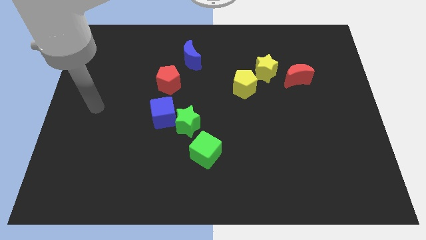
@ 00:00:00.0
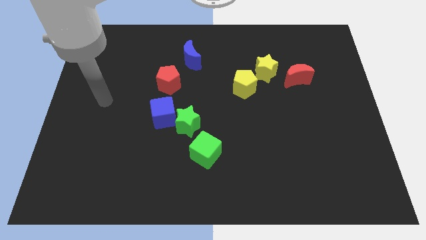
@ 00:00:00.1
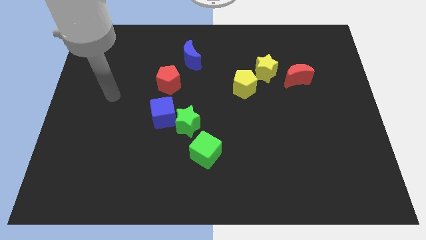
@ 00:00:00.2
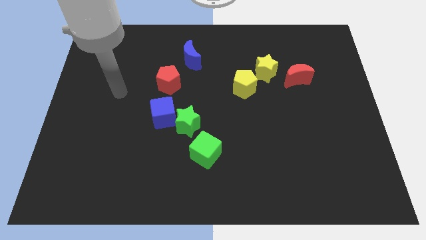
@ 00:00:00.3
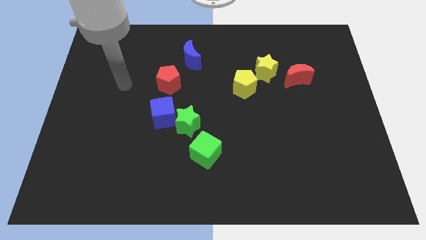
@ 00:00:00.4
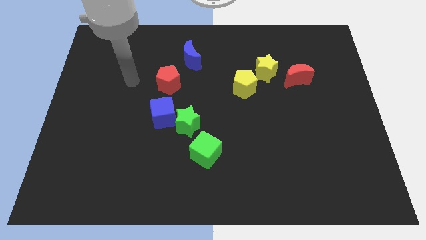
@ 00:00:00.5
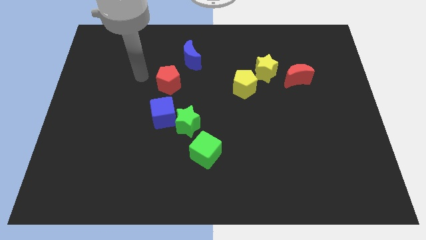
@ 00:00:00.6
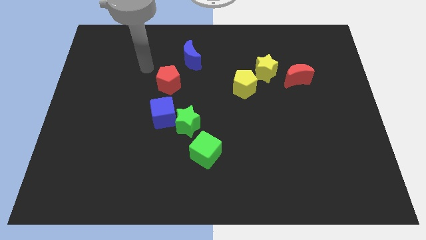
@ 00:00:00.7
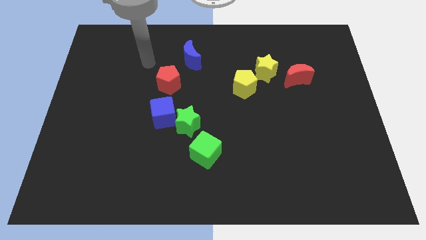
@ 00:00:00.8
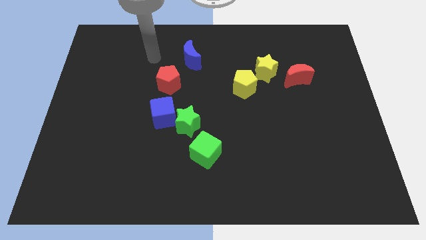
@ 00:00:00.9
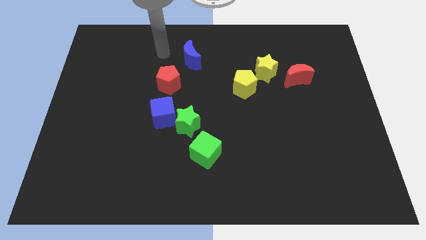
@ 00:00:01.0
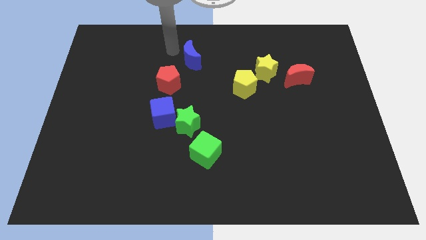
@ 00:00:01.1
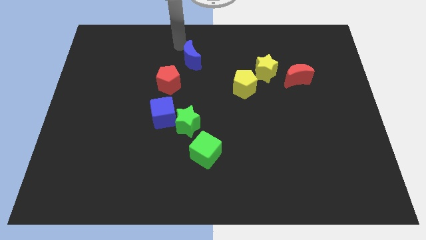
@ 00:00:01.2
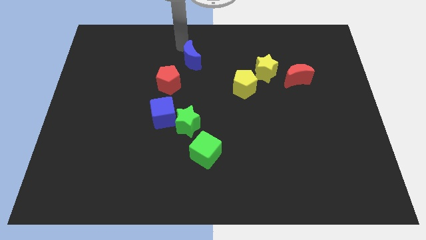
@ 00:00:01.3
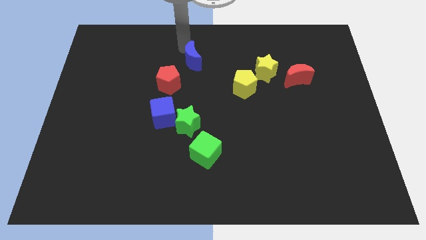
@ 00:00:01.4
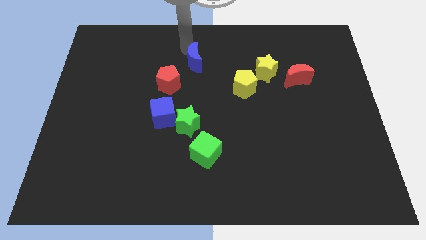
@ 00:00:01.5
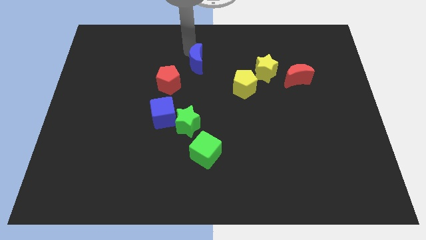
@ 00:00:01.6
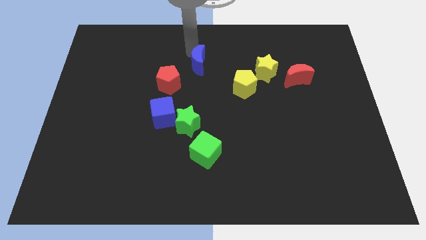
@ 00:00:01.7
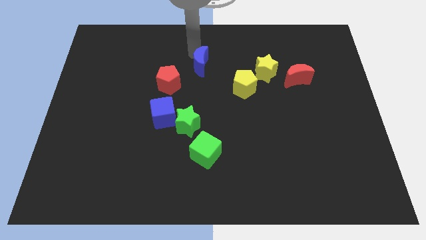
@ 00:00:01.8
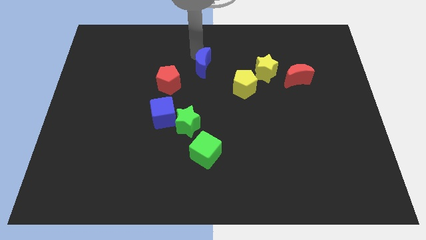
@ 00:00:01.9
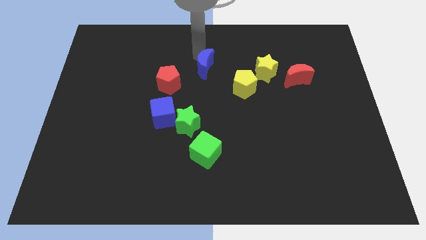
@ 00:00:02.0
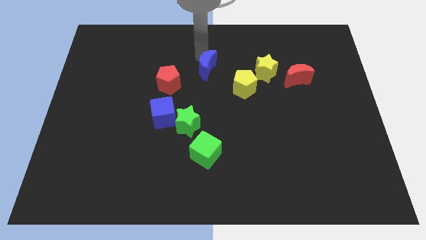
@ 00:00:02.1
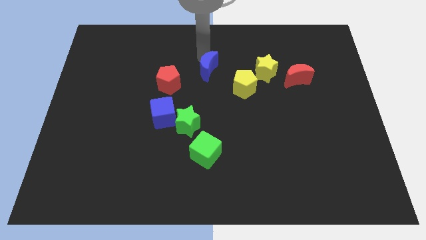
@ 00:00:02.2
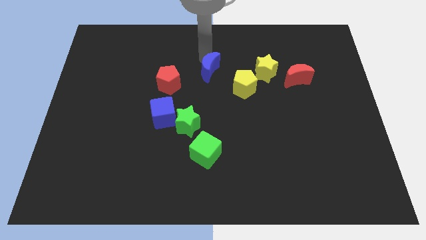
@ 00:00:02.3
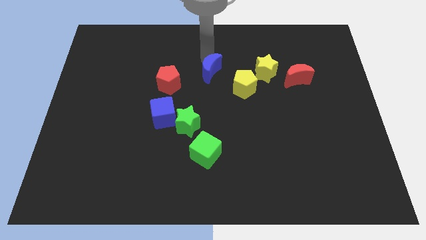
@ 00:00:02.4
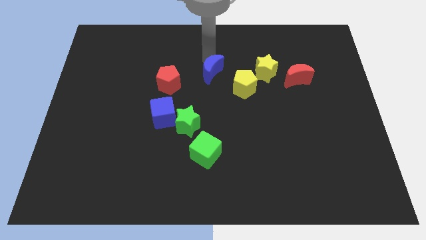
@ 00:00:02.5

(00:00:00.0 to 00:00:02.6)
slide the blue moon somewhat diagonally downwards and to the right

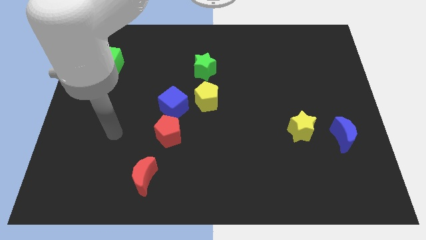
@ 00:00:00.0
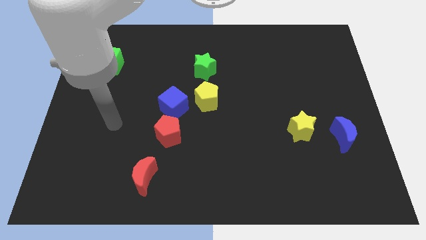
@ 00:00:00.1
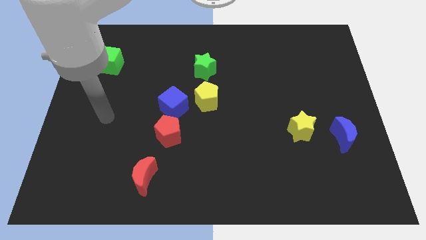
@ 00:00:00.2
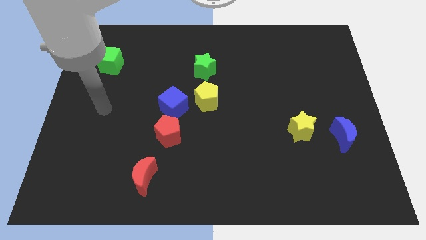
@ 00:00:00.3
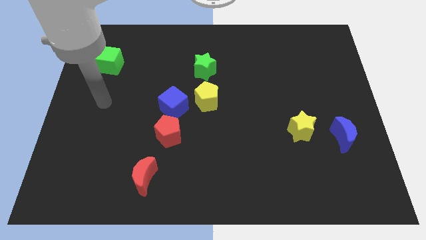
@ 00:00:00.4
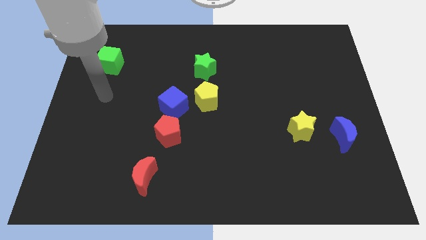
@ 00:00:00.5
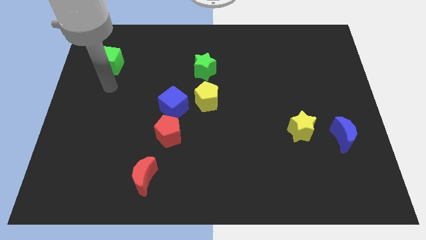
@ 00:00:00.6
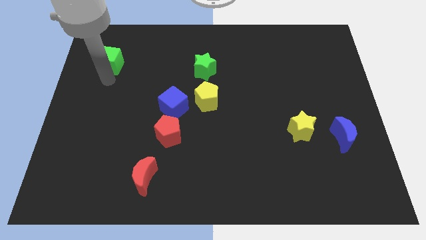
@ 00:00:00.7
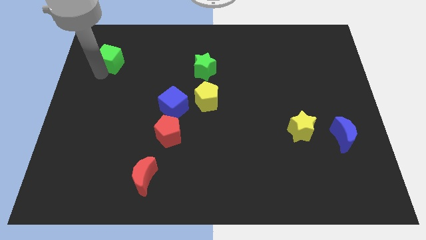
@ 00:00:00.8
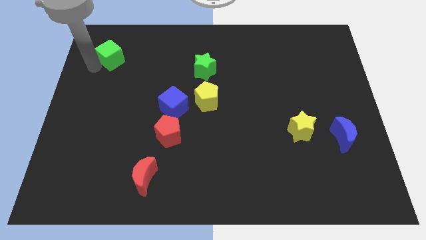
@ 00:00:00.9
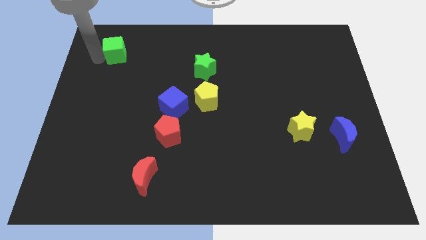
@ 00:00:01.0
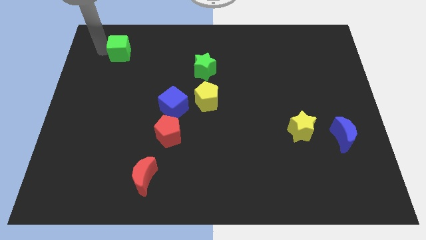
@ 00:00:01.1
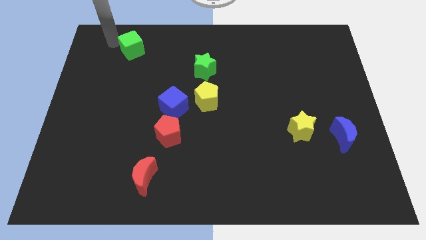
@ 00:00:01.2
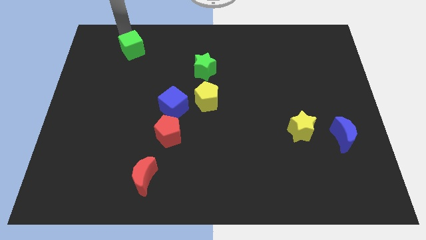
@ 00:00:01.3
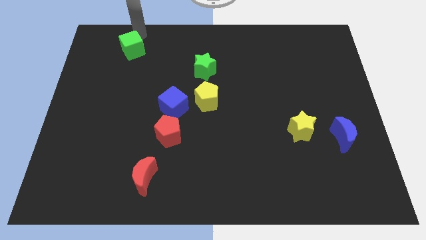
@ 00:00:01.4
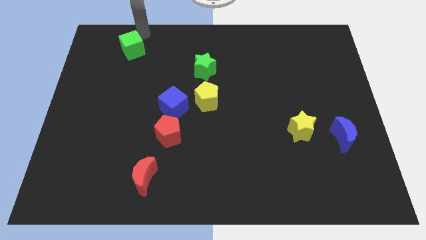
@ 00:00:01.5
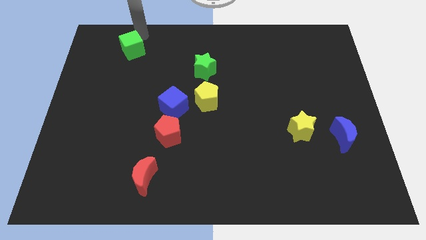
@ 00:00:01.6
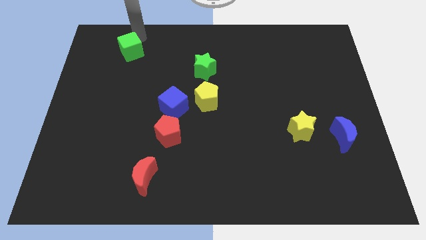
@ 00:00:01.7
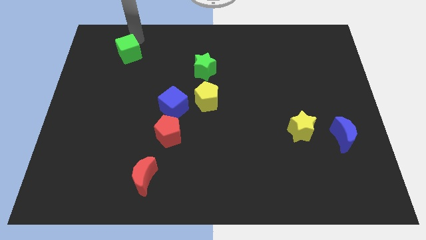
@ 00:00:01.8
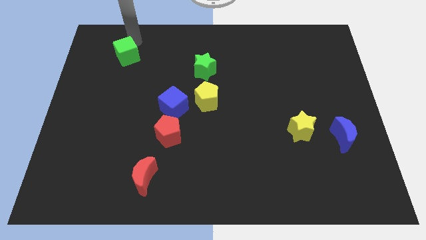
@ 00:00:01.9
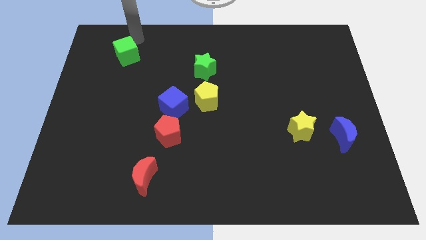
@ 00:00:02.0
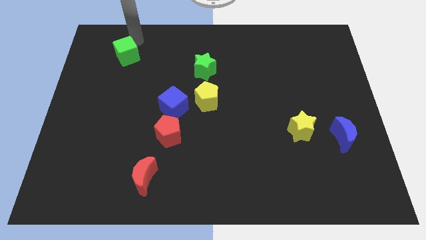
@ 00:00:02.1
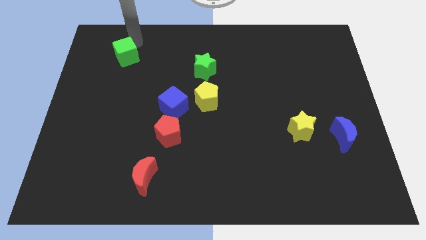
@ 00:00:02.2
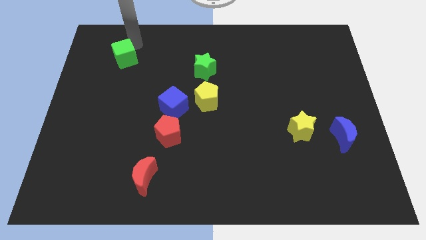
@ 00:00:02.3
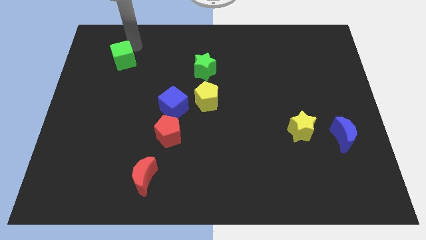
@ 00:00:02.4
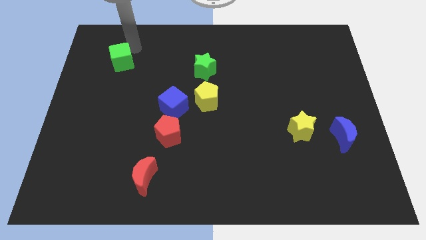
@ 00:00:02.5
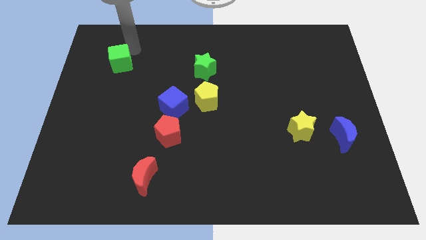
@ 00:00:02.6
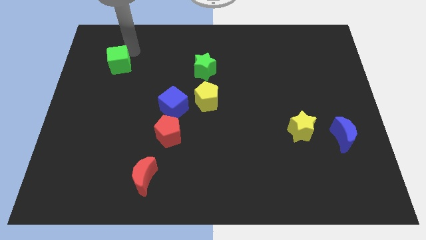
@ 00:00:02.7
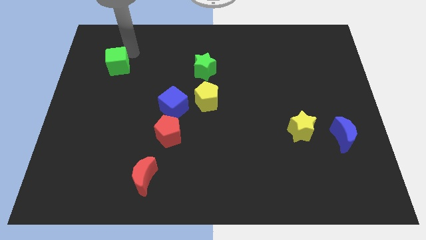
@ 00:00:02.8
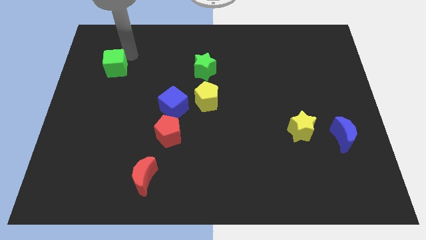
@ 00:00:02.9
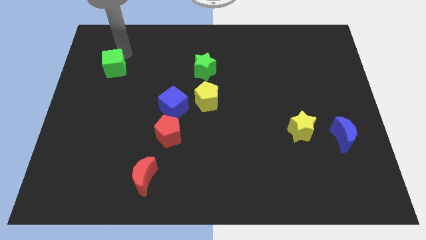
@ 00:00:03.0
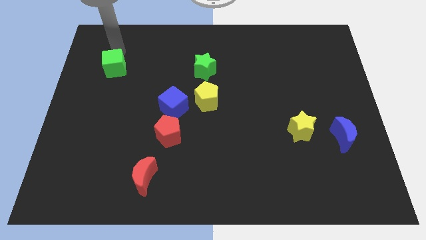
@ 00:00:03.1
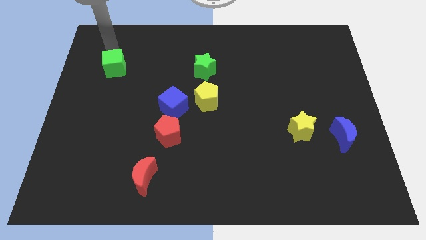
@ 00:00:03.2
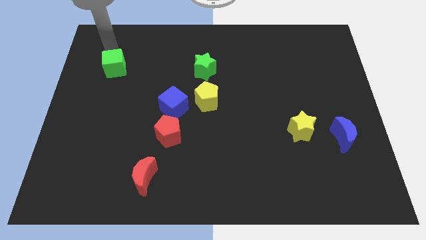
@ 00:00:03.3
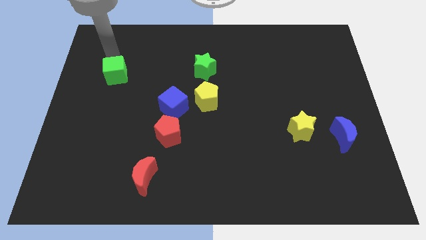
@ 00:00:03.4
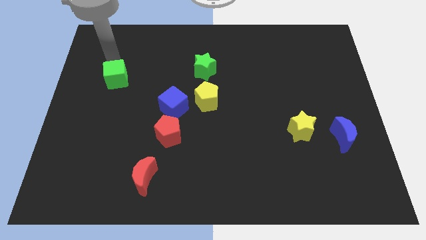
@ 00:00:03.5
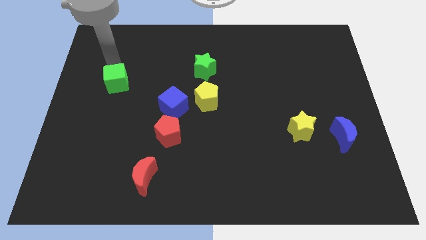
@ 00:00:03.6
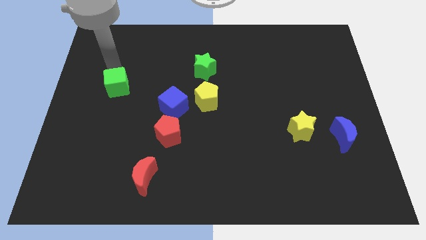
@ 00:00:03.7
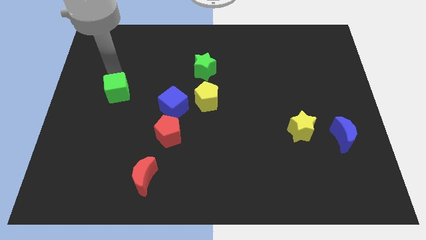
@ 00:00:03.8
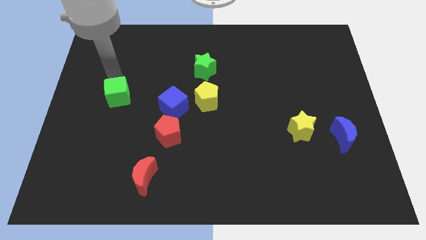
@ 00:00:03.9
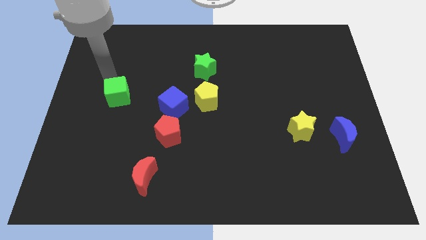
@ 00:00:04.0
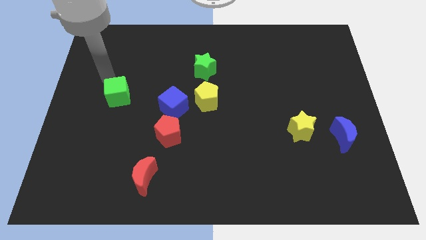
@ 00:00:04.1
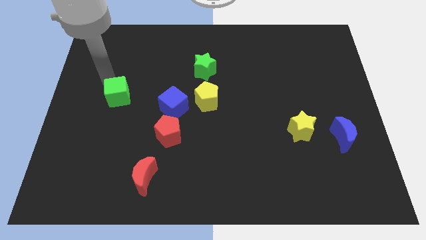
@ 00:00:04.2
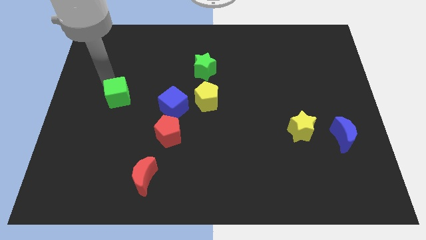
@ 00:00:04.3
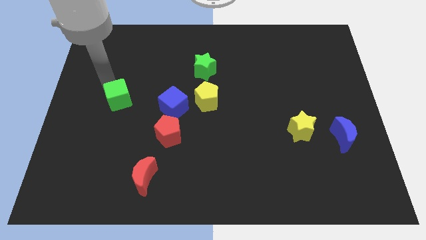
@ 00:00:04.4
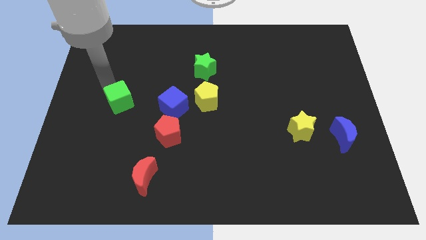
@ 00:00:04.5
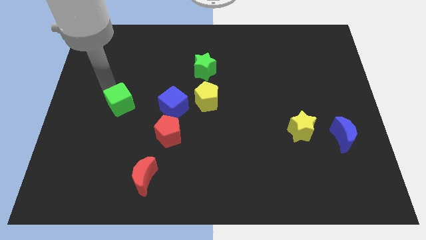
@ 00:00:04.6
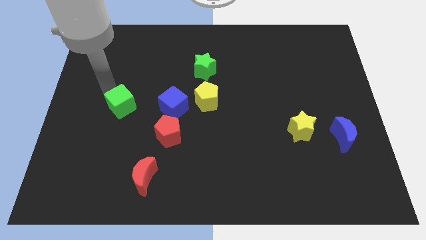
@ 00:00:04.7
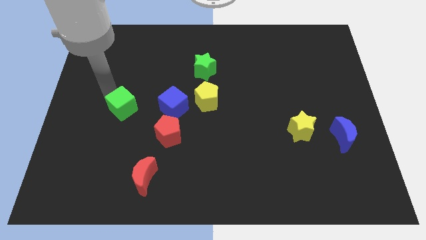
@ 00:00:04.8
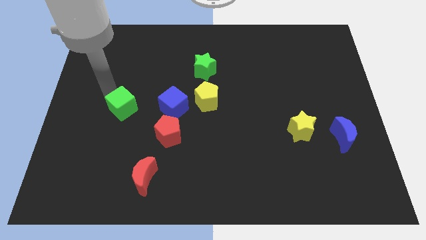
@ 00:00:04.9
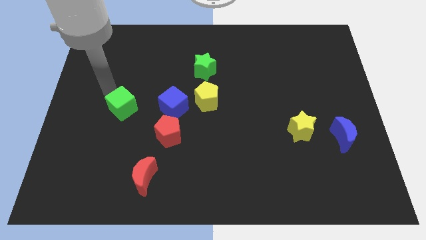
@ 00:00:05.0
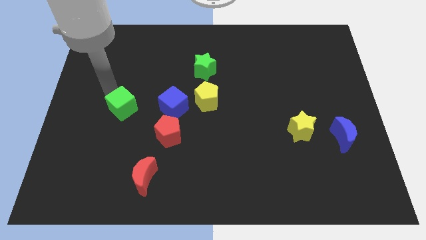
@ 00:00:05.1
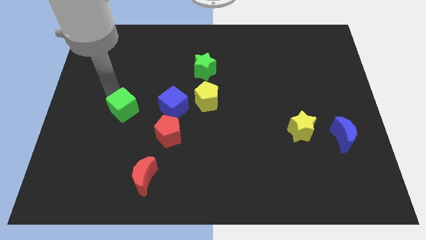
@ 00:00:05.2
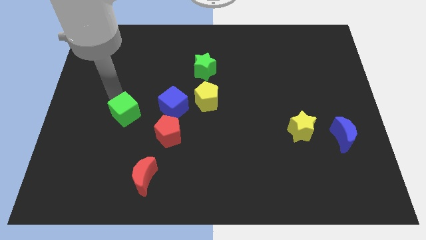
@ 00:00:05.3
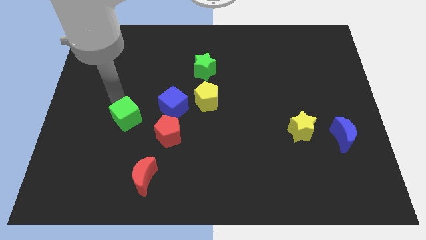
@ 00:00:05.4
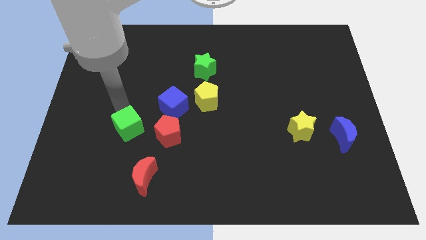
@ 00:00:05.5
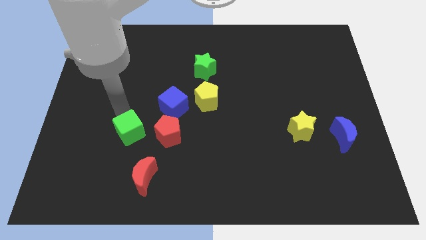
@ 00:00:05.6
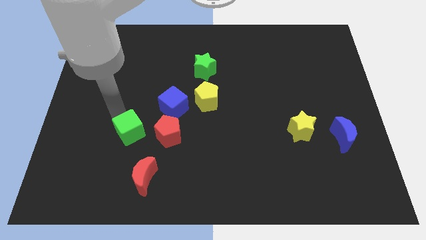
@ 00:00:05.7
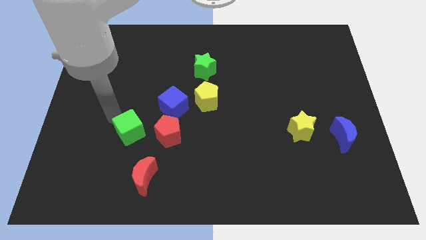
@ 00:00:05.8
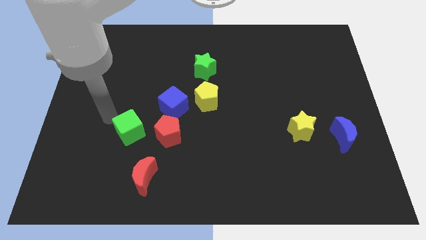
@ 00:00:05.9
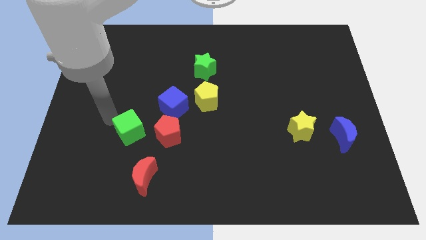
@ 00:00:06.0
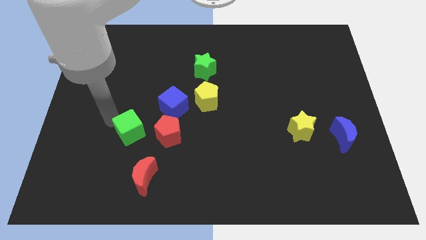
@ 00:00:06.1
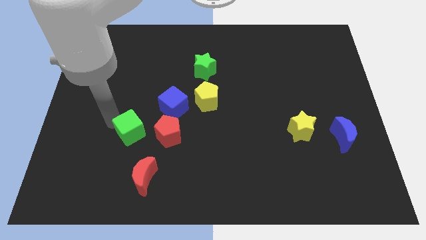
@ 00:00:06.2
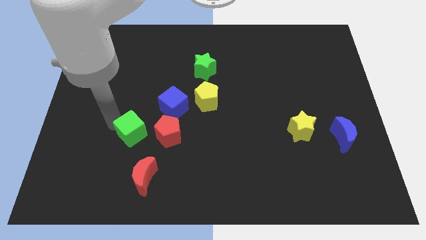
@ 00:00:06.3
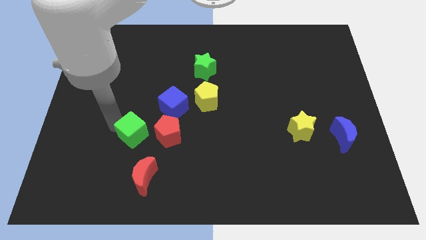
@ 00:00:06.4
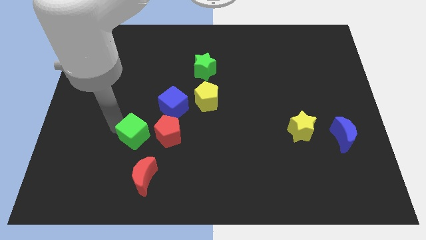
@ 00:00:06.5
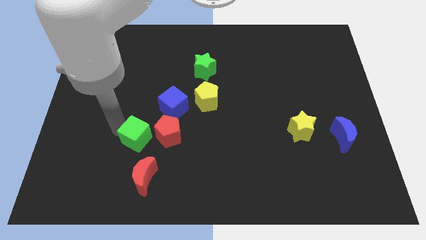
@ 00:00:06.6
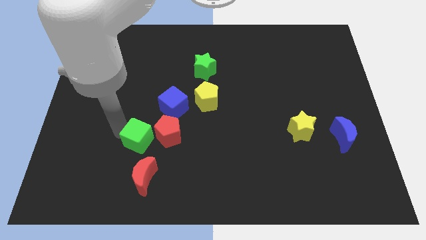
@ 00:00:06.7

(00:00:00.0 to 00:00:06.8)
move the green cube diagonally downwards and to the right
